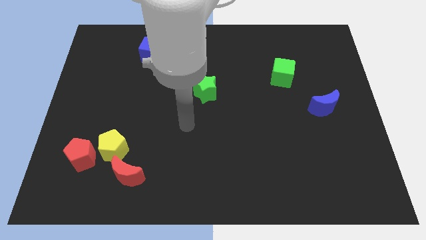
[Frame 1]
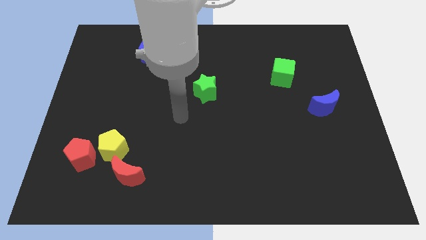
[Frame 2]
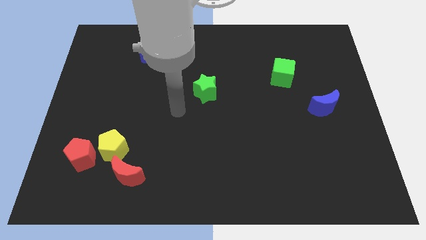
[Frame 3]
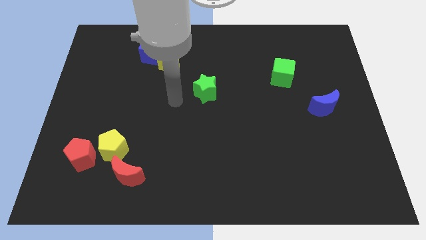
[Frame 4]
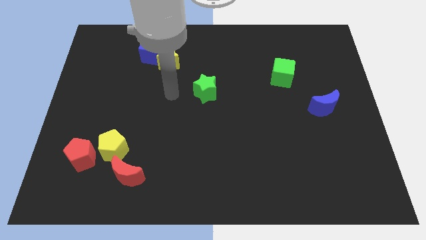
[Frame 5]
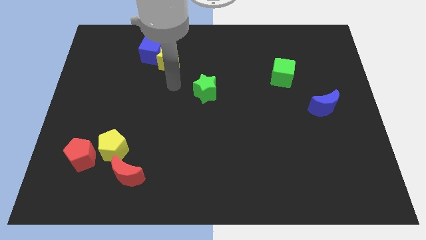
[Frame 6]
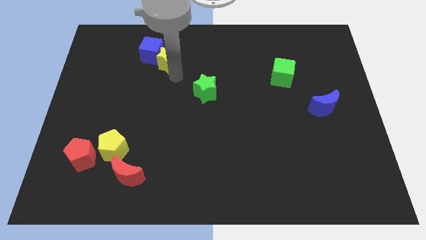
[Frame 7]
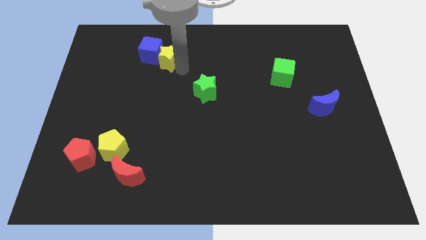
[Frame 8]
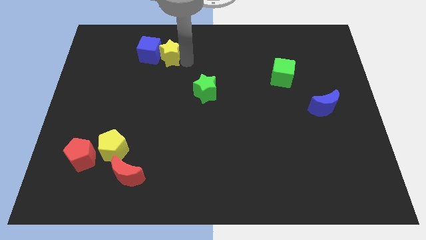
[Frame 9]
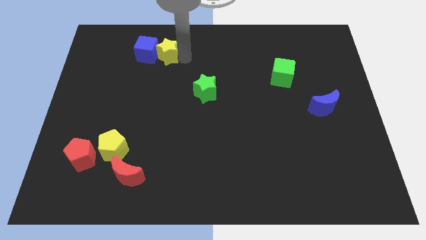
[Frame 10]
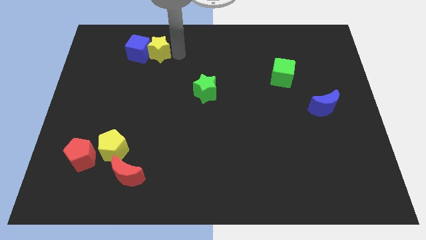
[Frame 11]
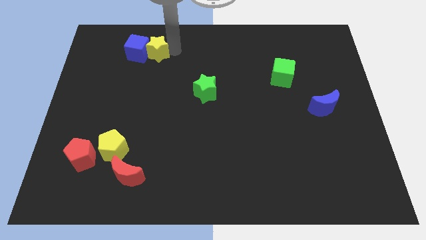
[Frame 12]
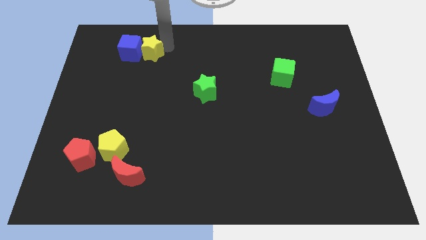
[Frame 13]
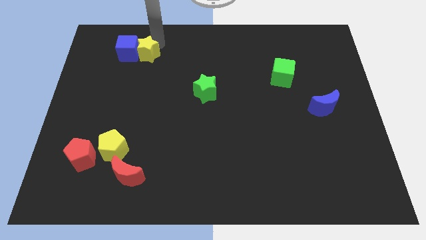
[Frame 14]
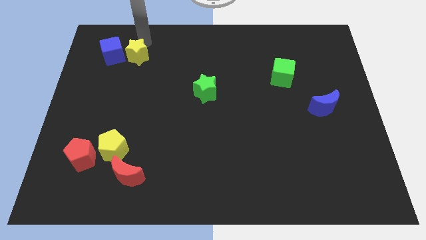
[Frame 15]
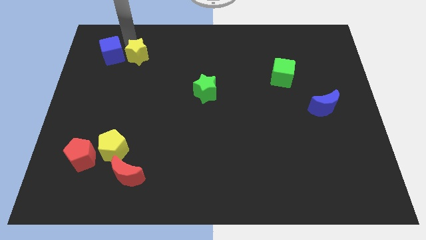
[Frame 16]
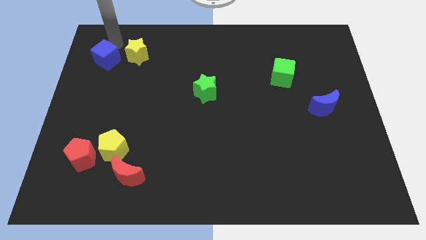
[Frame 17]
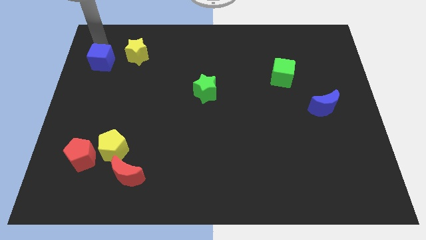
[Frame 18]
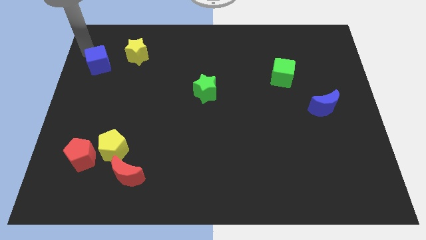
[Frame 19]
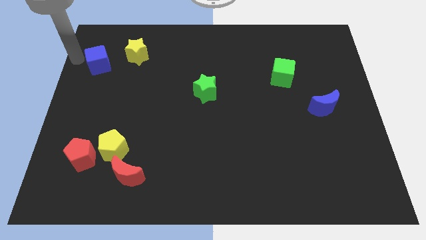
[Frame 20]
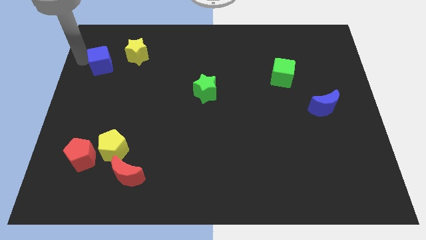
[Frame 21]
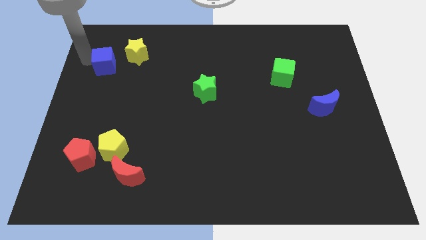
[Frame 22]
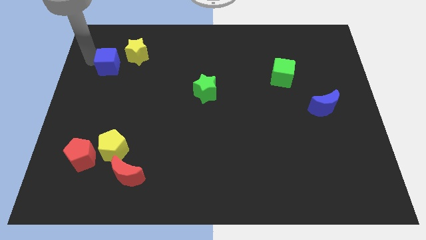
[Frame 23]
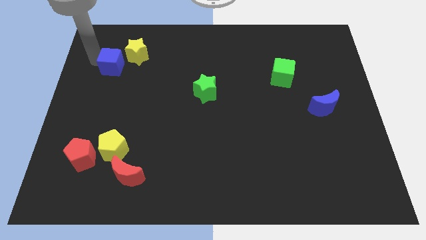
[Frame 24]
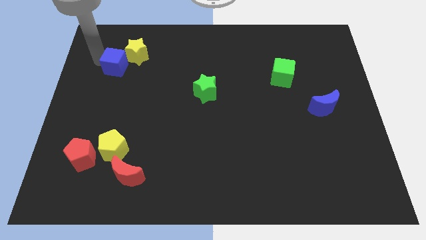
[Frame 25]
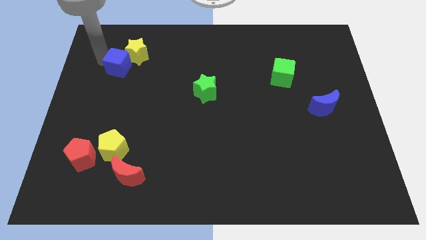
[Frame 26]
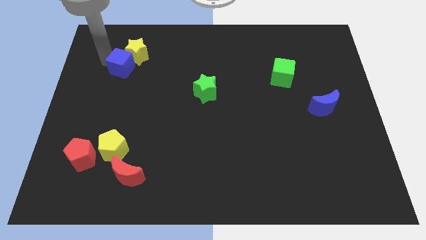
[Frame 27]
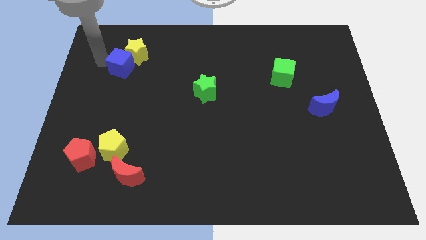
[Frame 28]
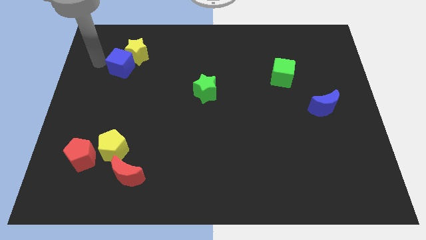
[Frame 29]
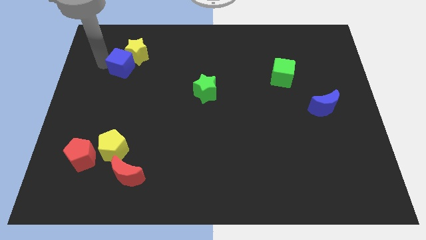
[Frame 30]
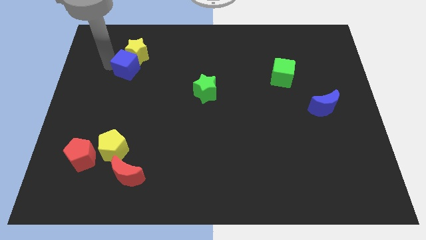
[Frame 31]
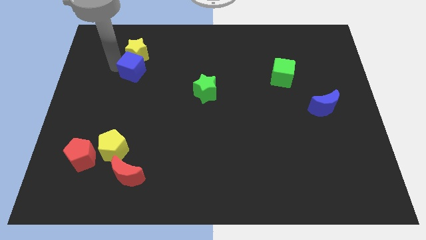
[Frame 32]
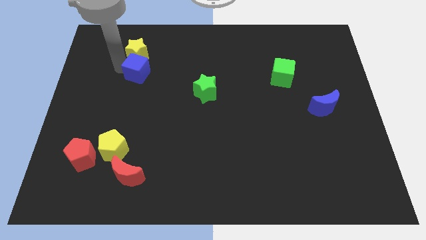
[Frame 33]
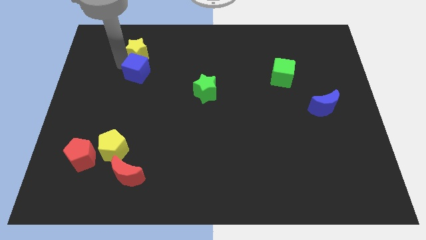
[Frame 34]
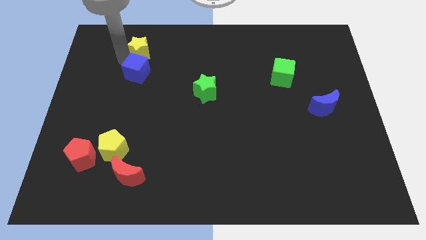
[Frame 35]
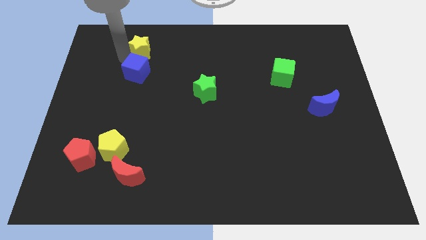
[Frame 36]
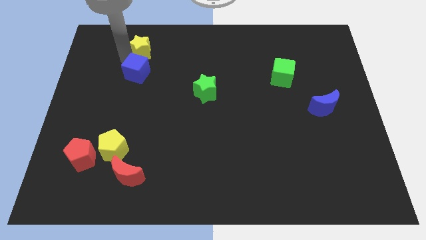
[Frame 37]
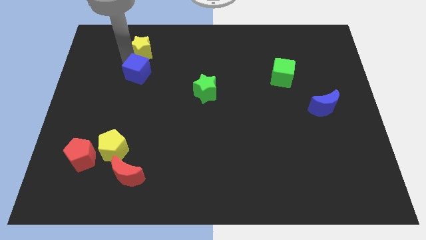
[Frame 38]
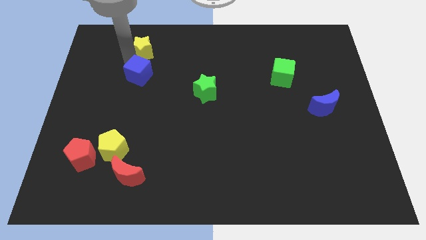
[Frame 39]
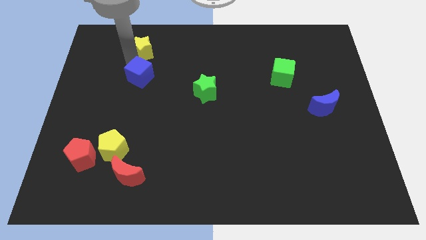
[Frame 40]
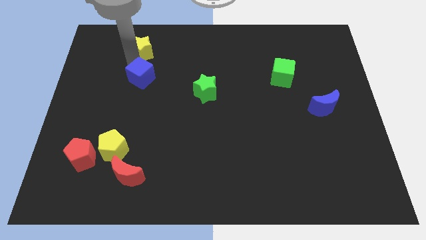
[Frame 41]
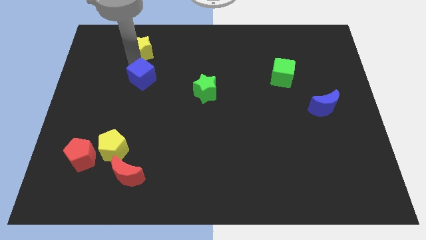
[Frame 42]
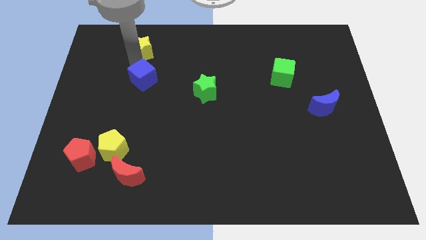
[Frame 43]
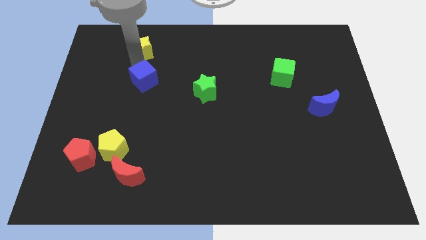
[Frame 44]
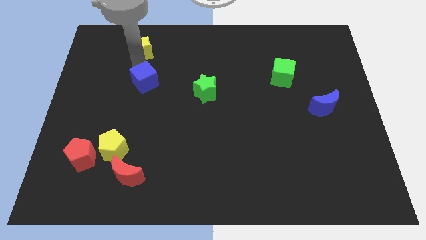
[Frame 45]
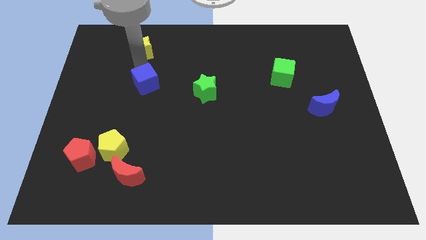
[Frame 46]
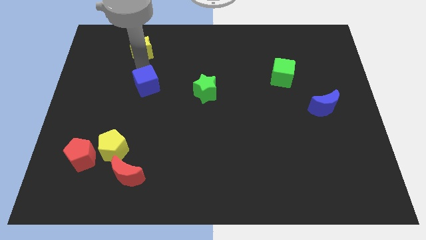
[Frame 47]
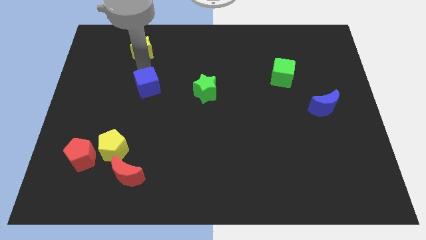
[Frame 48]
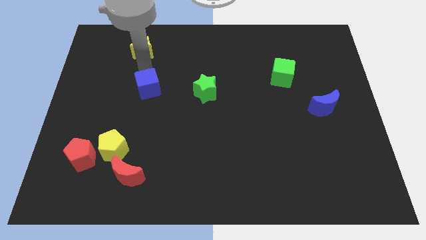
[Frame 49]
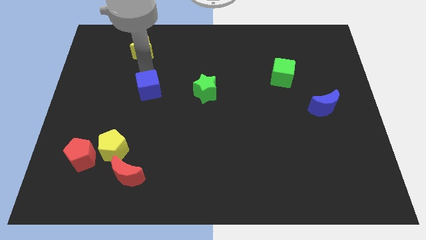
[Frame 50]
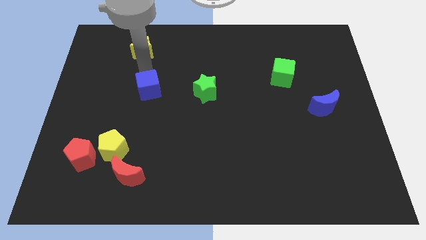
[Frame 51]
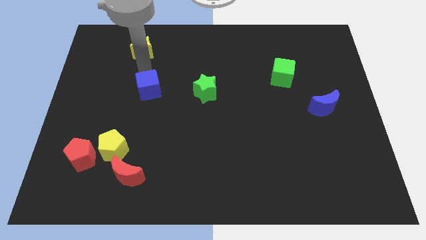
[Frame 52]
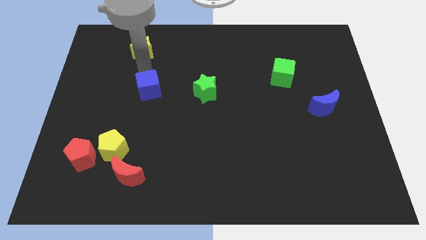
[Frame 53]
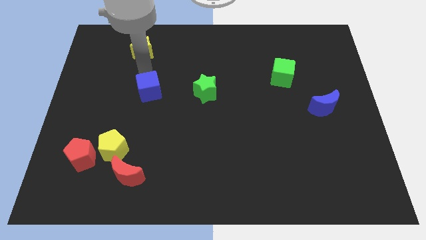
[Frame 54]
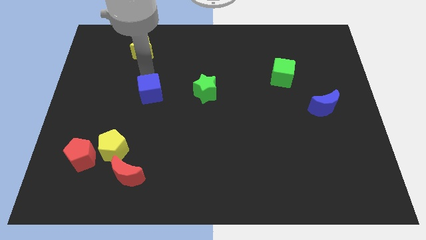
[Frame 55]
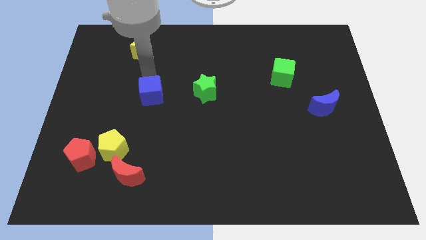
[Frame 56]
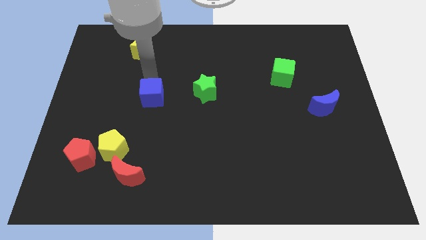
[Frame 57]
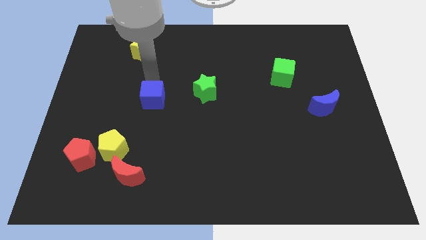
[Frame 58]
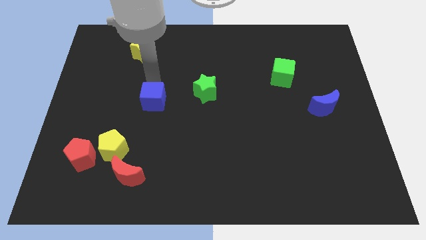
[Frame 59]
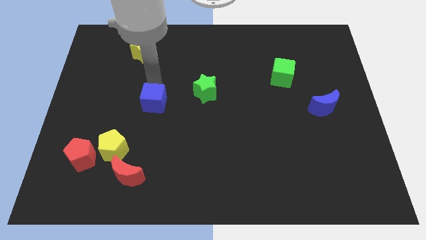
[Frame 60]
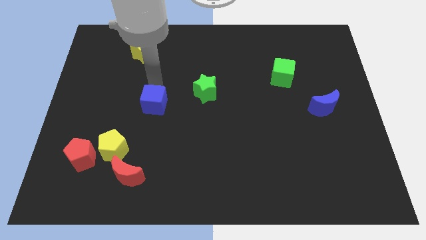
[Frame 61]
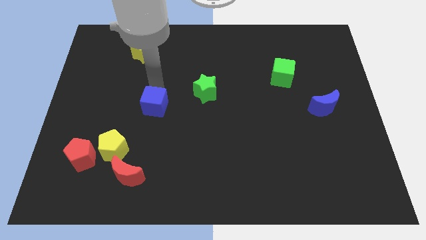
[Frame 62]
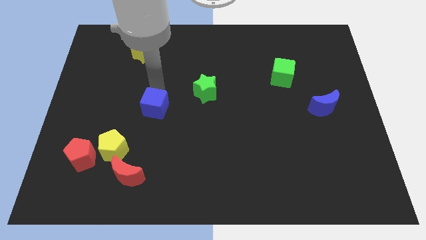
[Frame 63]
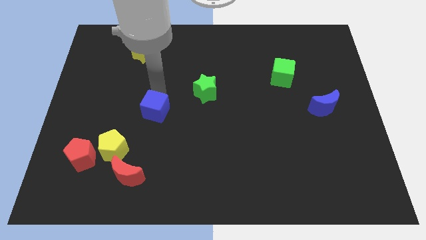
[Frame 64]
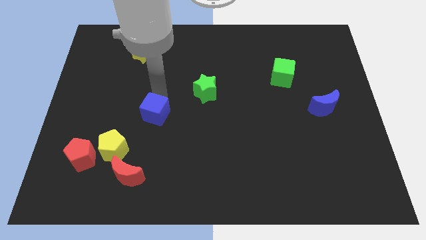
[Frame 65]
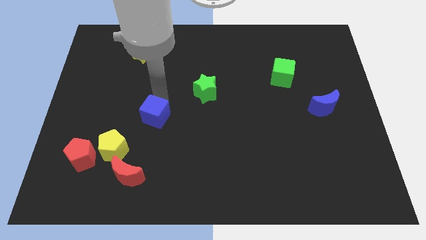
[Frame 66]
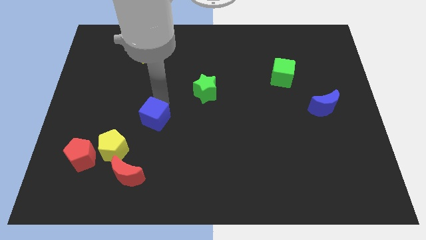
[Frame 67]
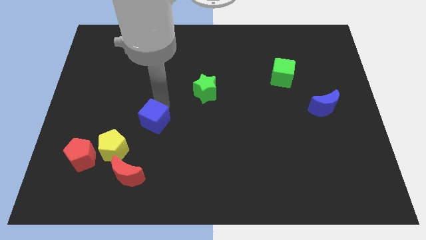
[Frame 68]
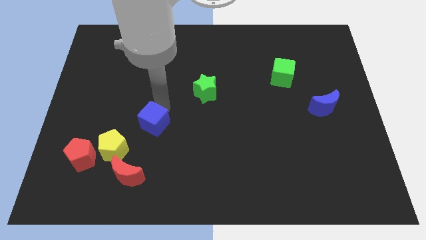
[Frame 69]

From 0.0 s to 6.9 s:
slide the blue cube to the top side of the red moon
